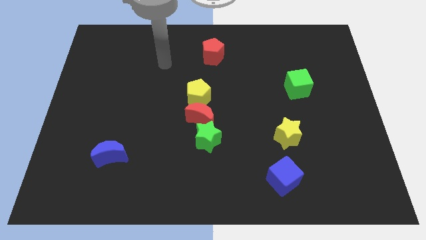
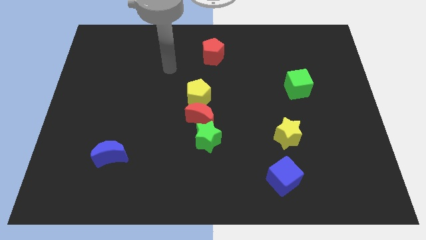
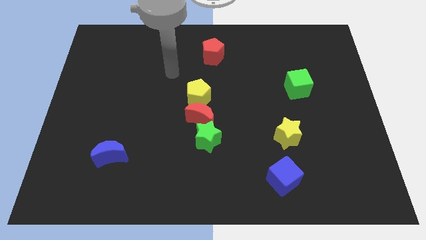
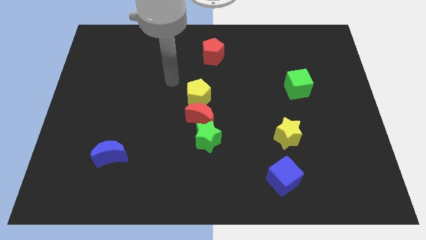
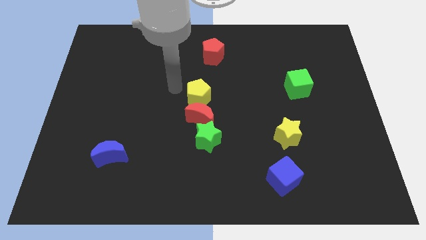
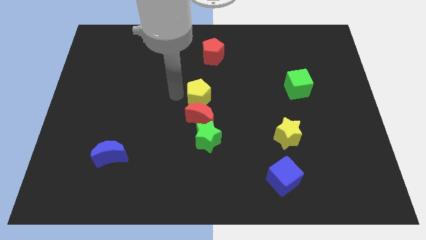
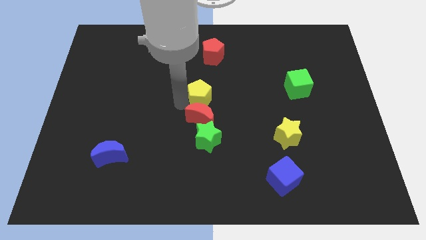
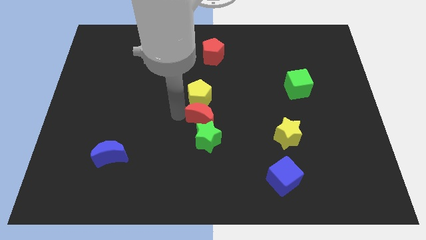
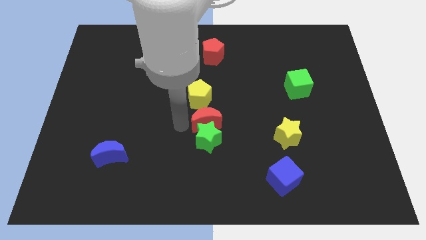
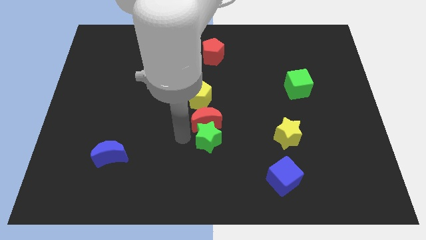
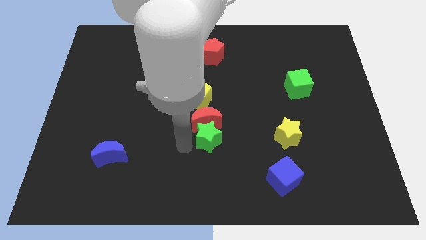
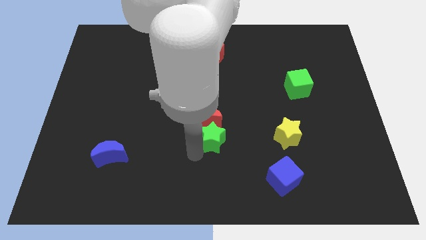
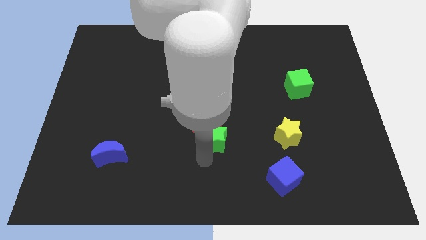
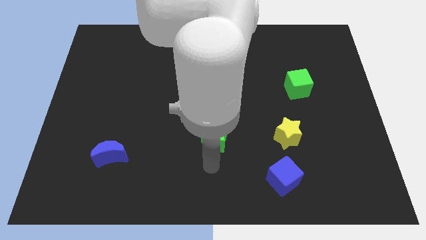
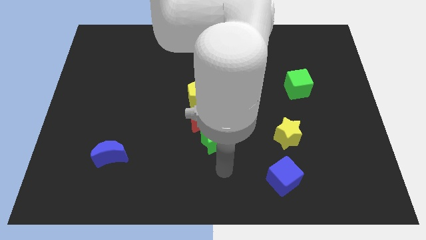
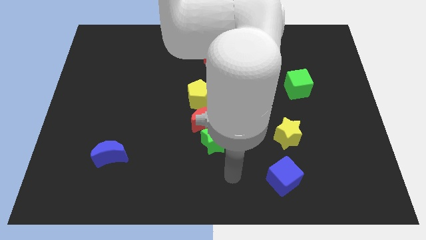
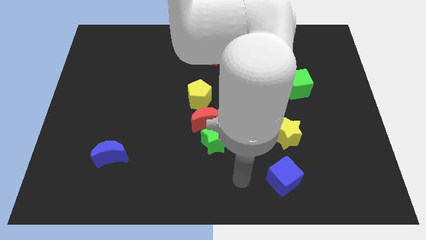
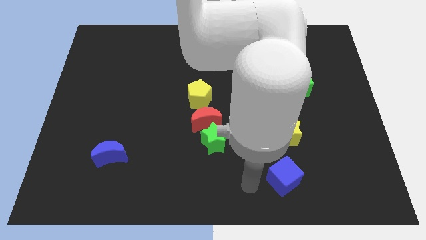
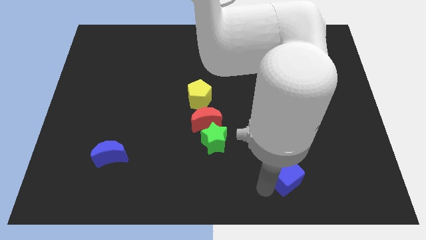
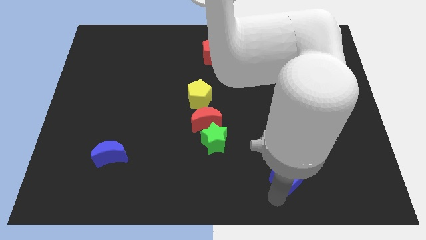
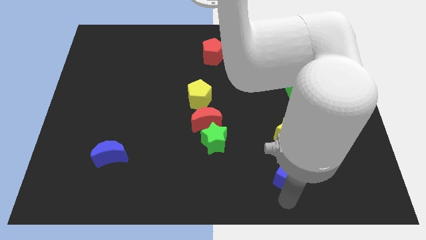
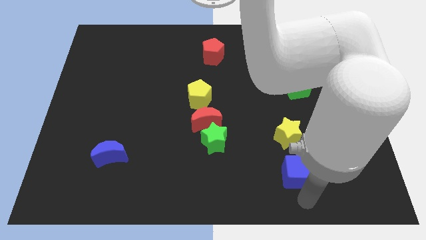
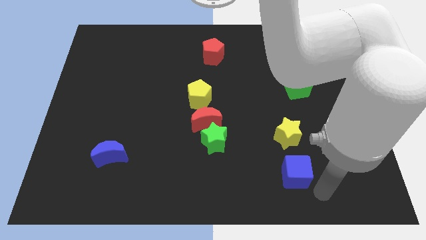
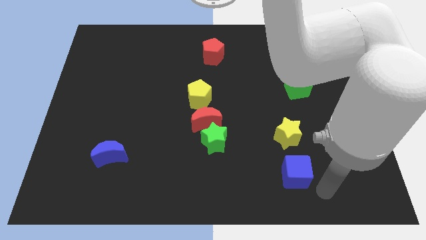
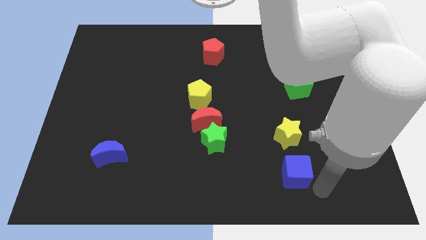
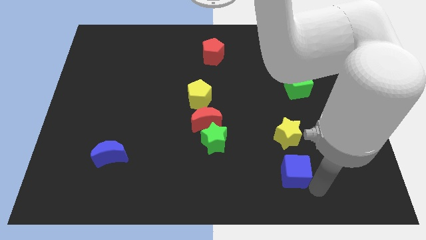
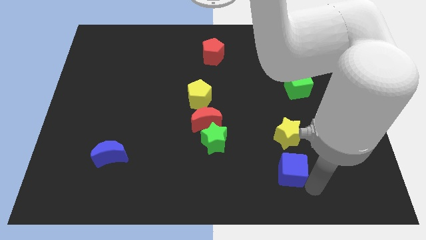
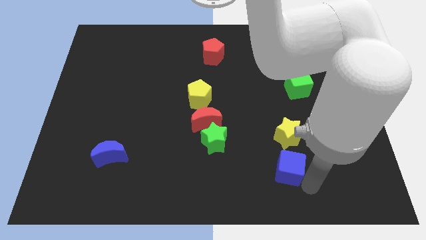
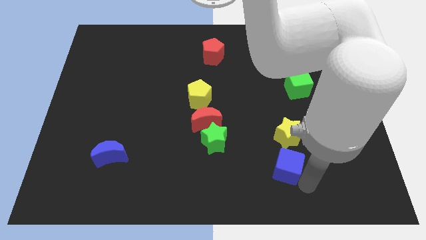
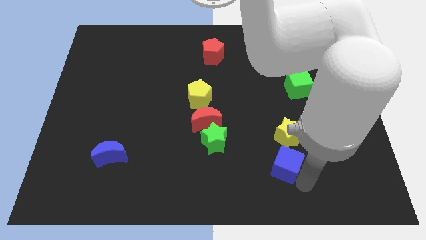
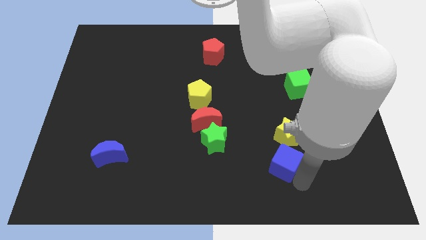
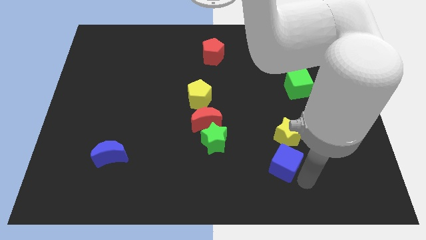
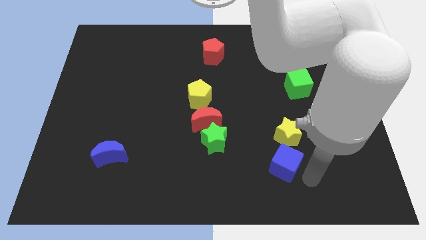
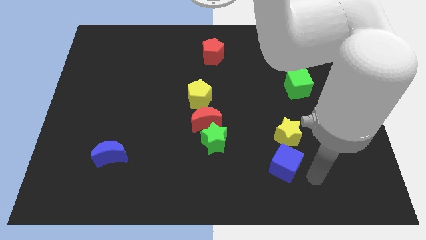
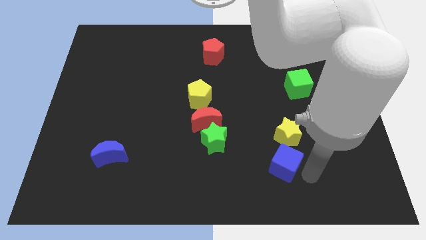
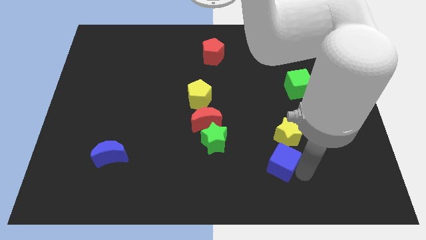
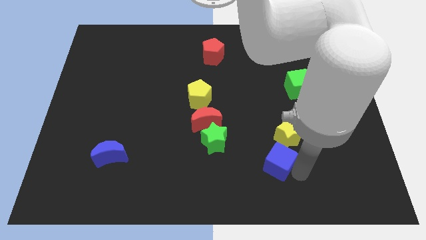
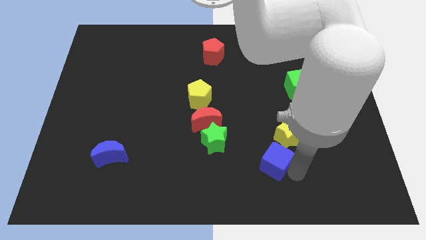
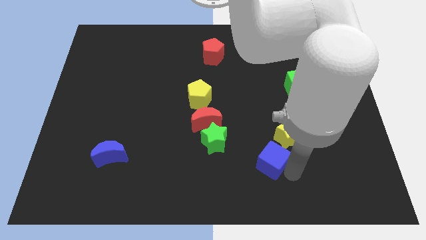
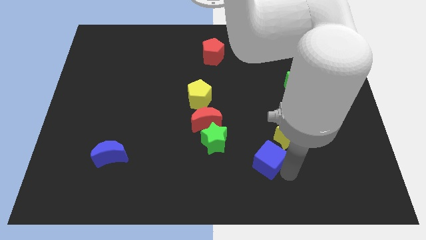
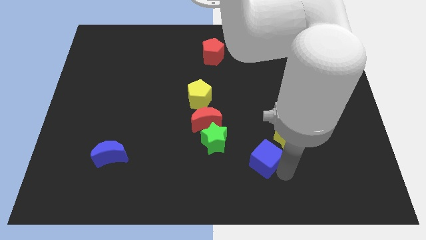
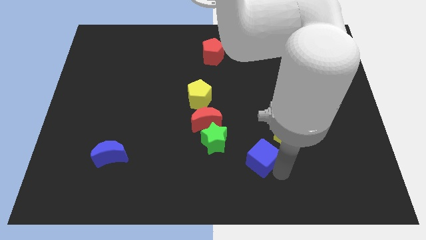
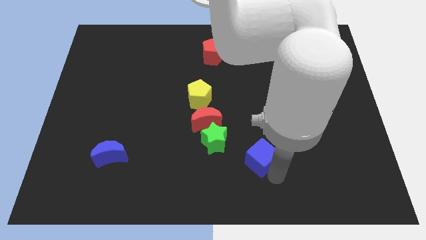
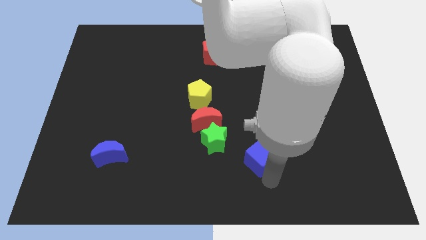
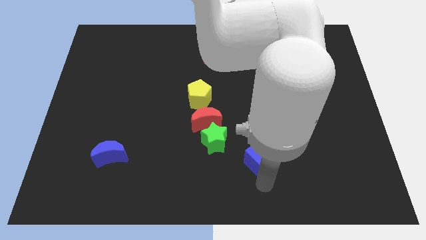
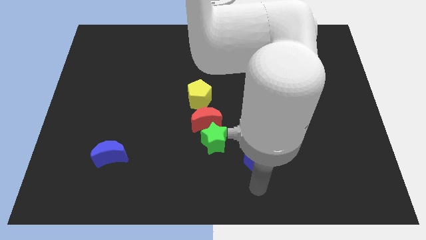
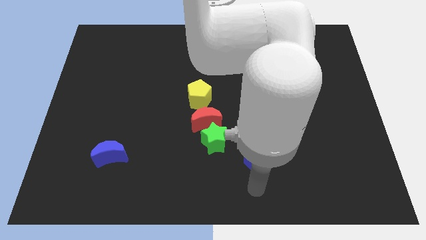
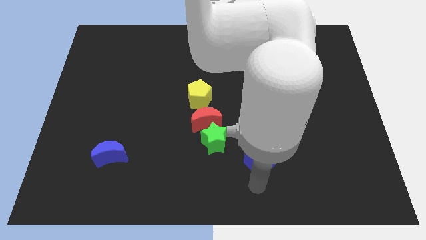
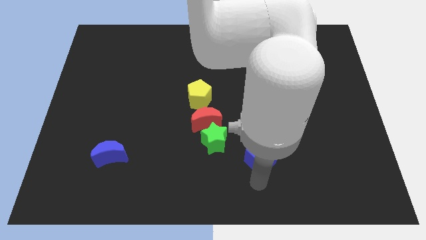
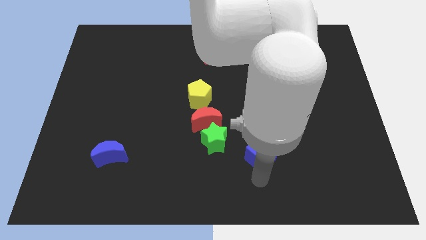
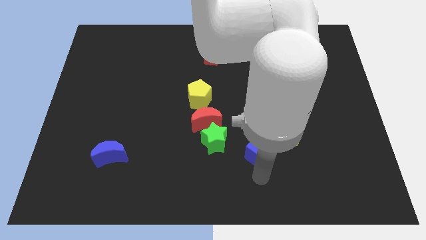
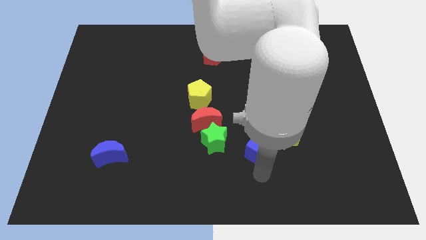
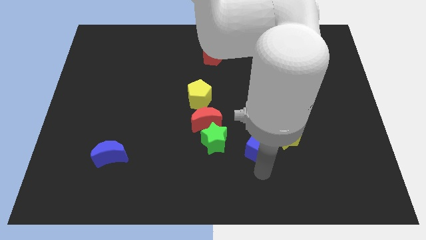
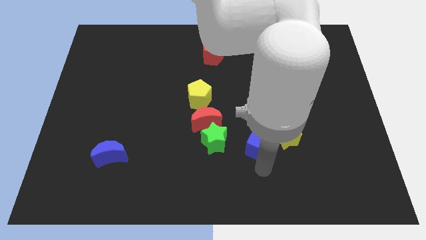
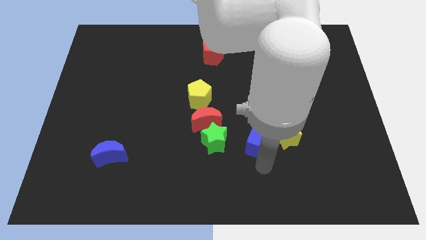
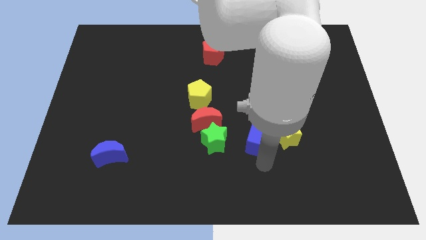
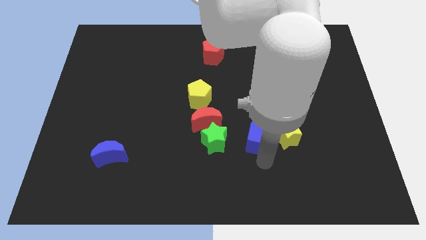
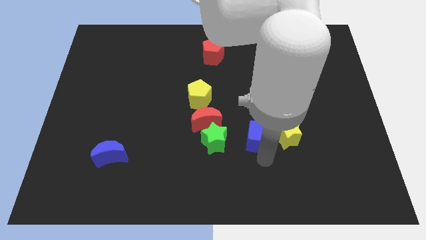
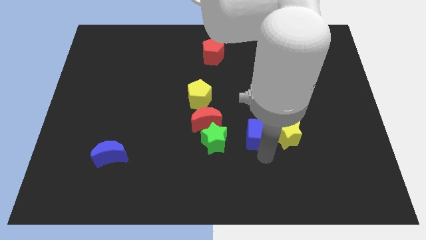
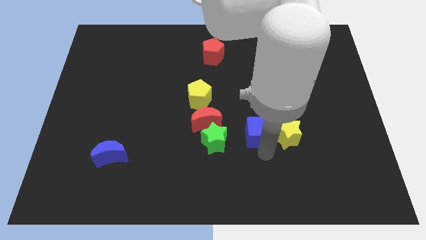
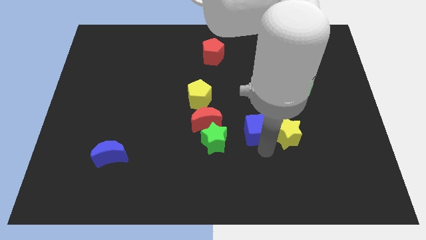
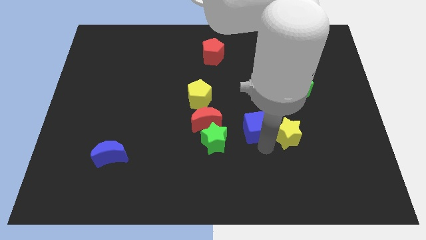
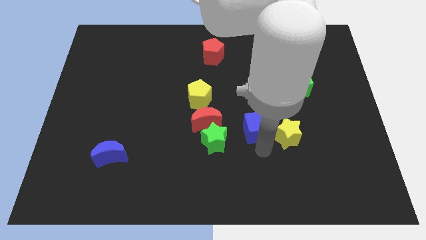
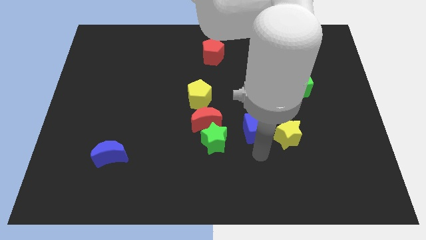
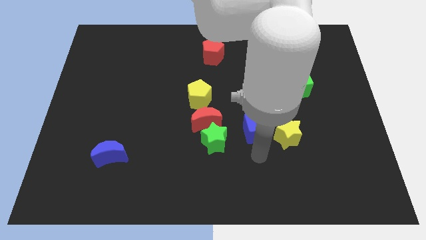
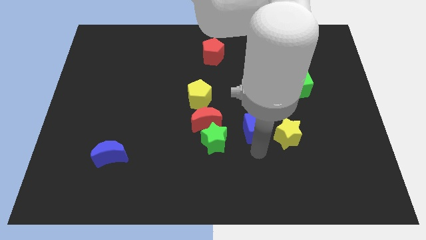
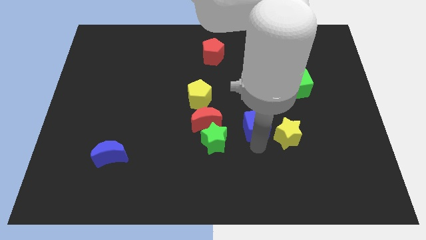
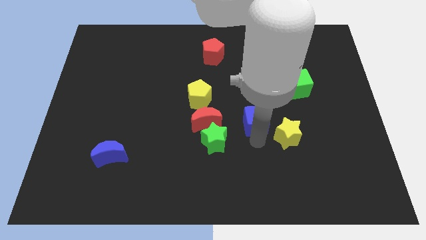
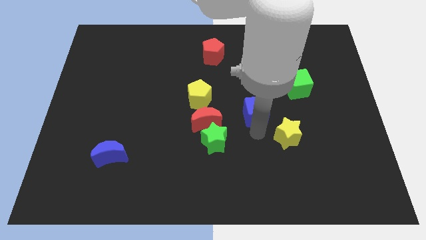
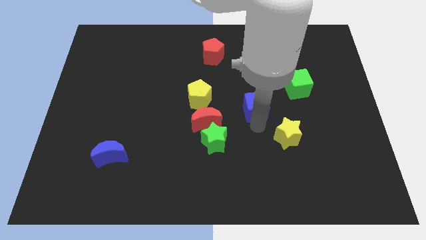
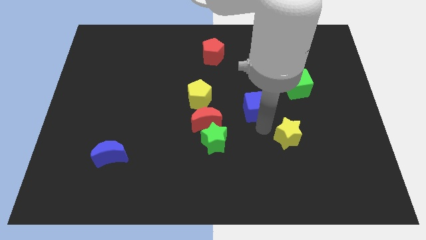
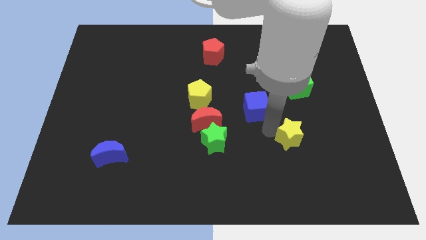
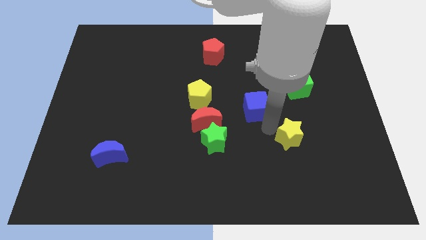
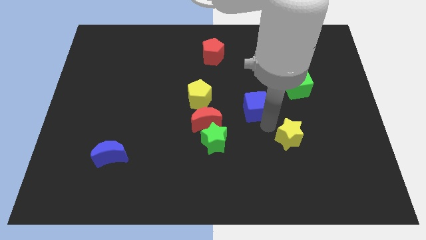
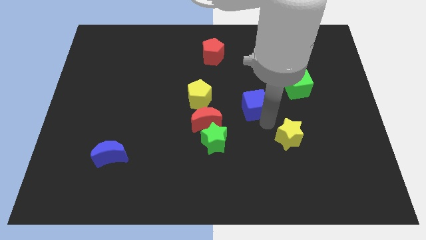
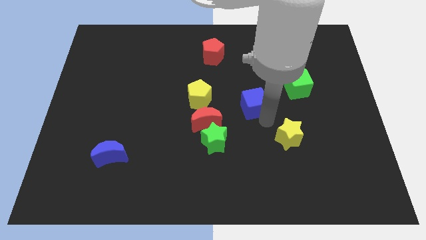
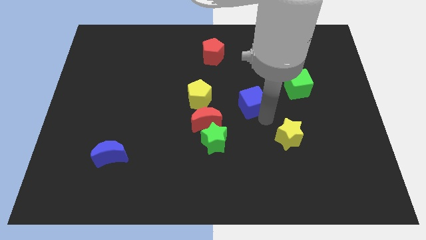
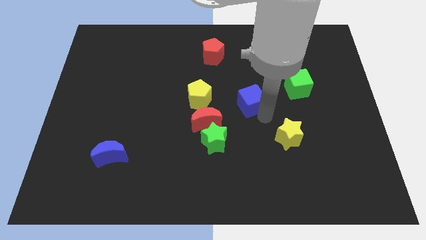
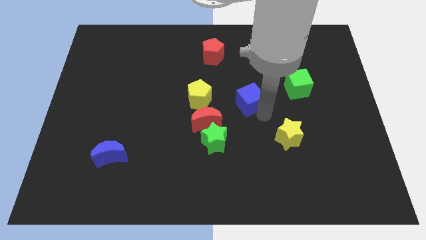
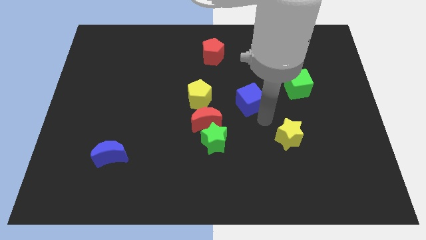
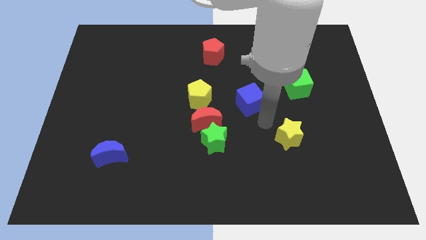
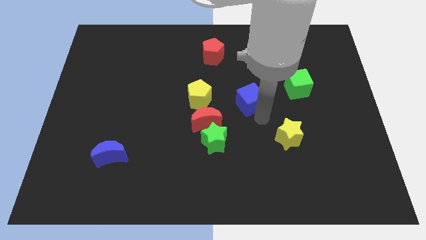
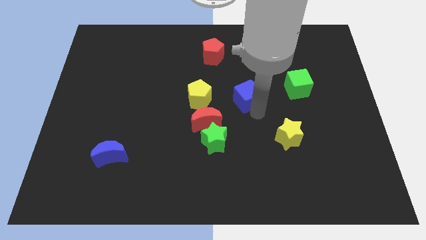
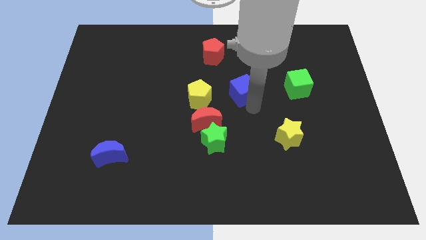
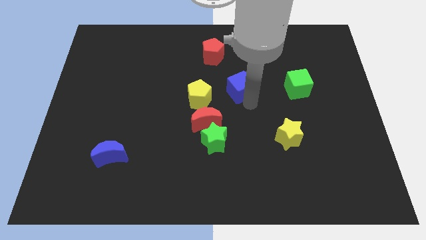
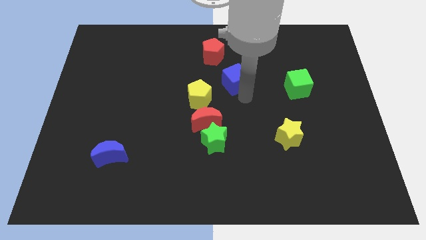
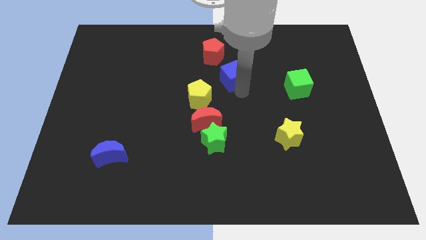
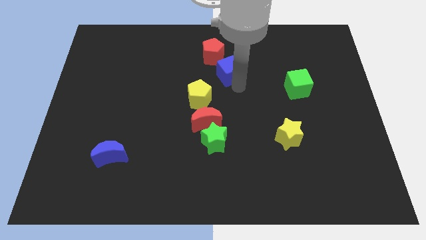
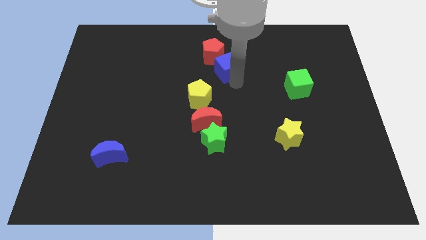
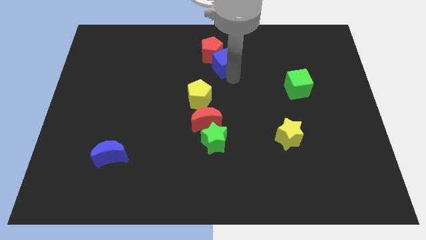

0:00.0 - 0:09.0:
move the blue cube towards the red pentagon
